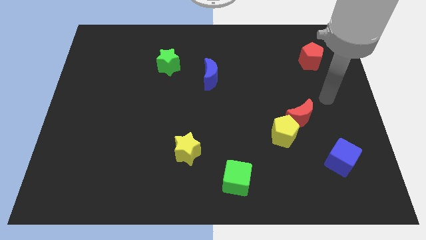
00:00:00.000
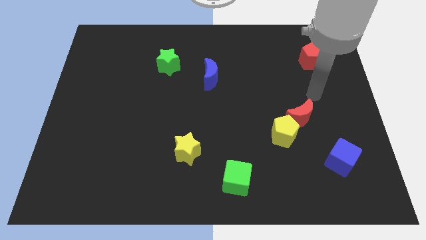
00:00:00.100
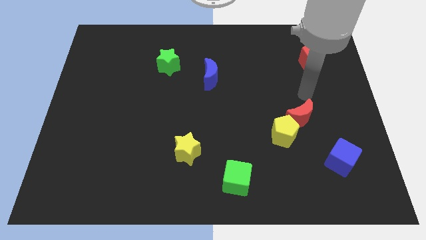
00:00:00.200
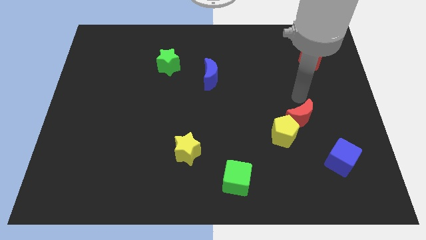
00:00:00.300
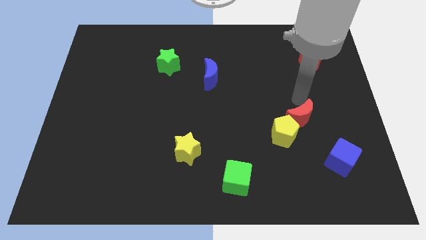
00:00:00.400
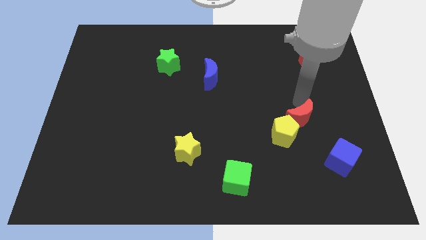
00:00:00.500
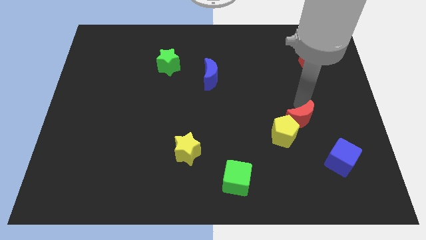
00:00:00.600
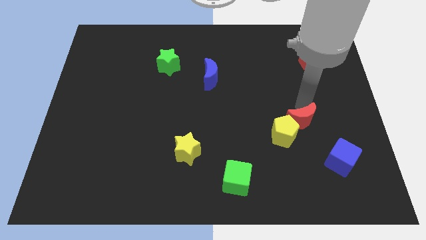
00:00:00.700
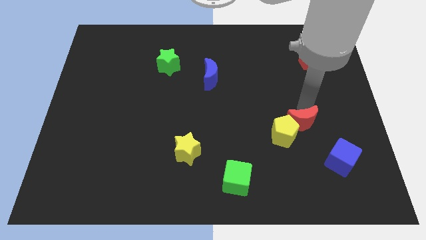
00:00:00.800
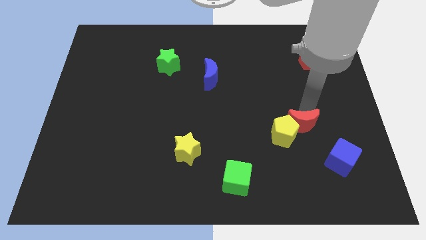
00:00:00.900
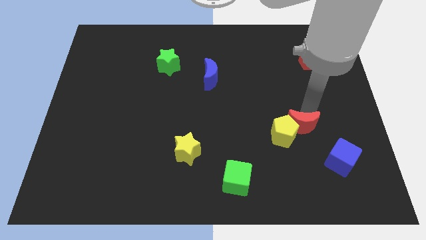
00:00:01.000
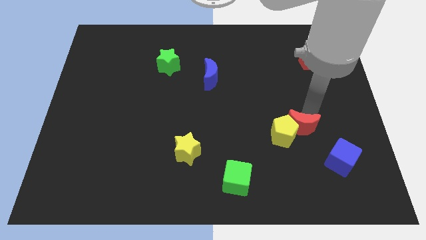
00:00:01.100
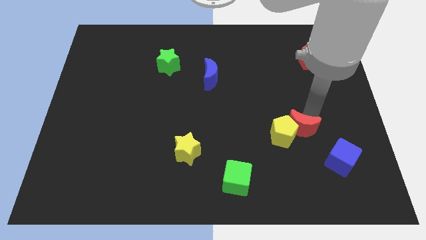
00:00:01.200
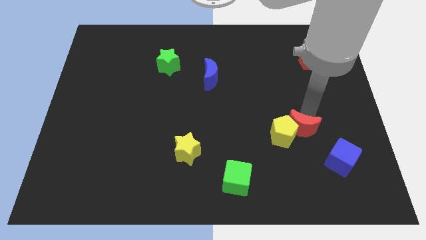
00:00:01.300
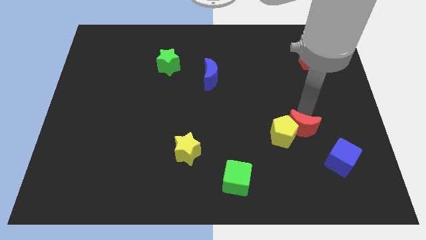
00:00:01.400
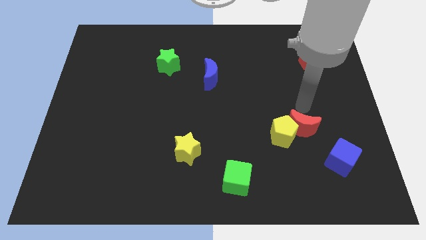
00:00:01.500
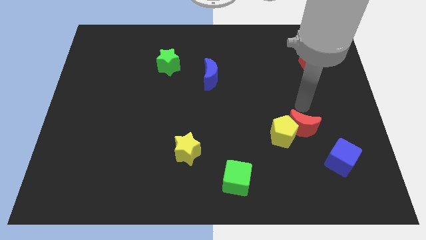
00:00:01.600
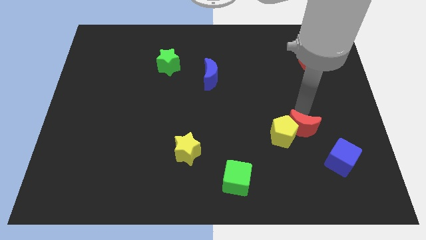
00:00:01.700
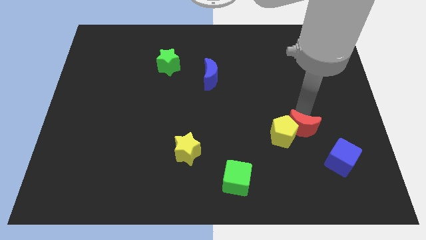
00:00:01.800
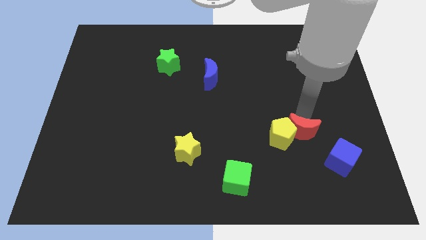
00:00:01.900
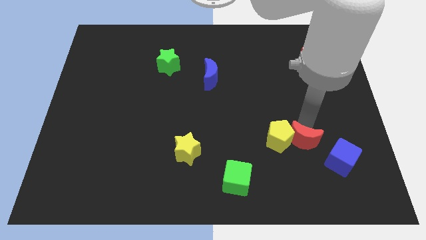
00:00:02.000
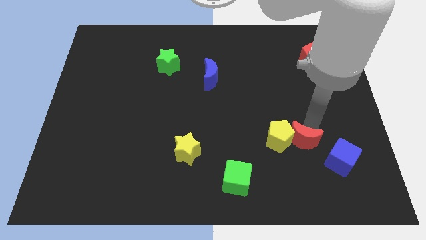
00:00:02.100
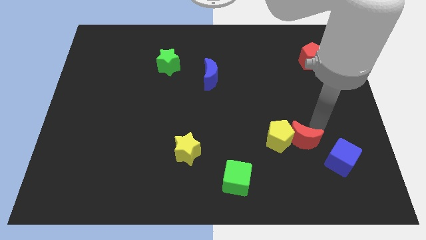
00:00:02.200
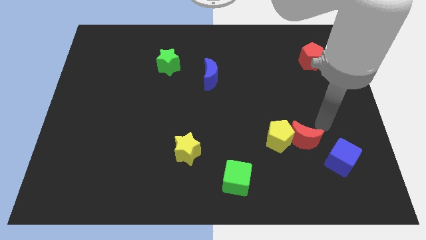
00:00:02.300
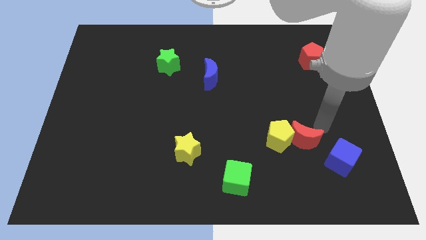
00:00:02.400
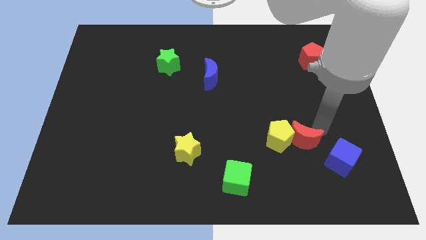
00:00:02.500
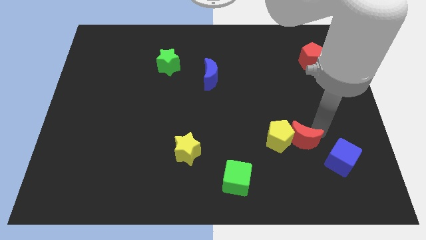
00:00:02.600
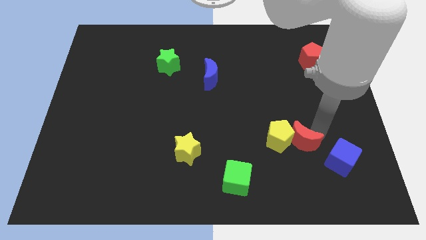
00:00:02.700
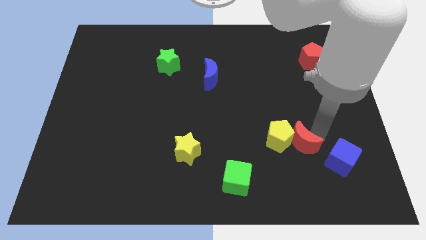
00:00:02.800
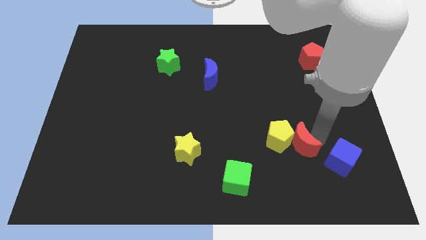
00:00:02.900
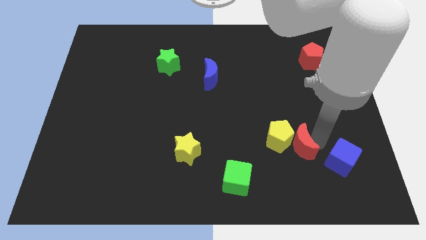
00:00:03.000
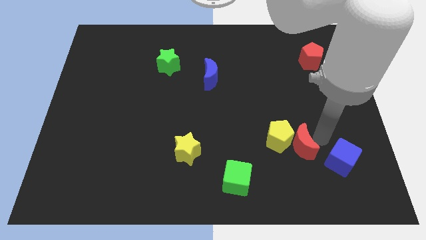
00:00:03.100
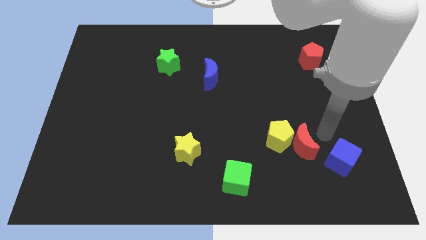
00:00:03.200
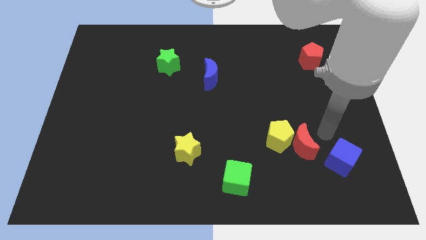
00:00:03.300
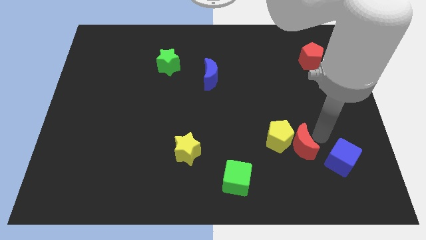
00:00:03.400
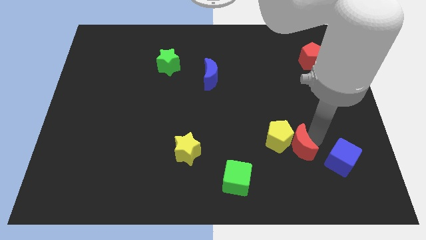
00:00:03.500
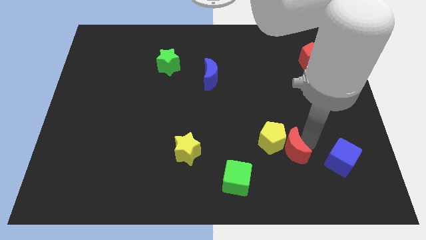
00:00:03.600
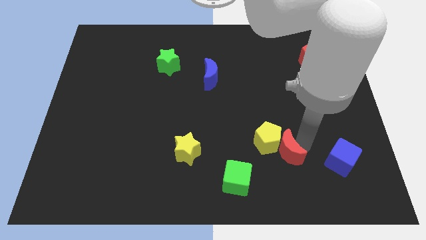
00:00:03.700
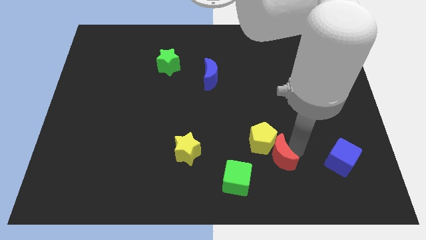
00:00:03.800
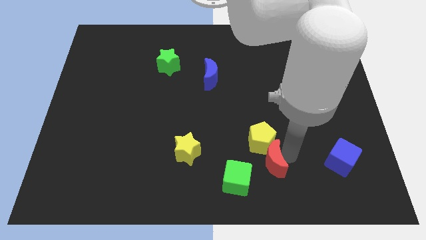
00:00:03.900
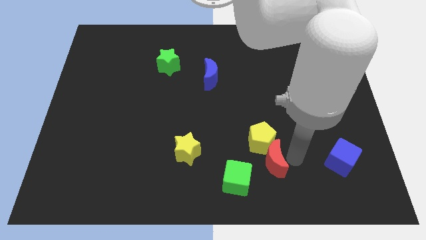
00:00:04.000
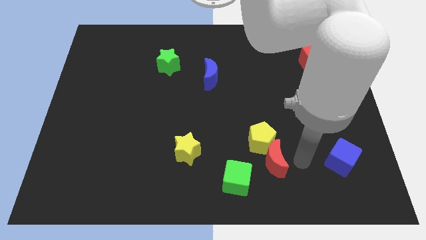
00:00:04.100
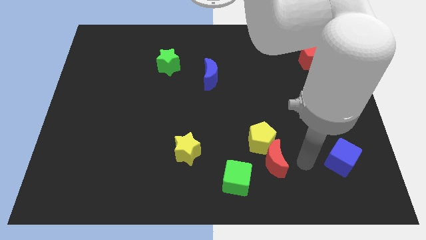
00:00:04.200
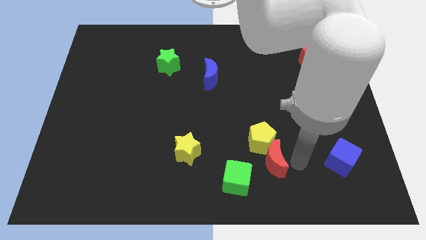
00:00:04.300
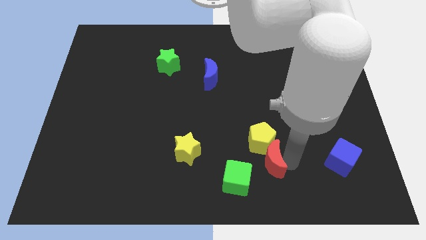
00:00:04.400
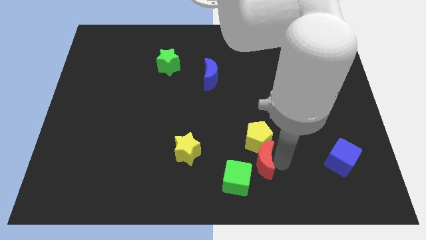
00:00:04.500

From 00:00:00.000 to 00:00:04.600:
slide the red moon diagonally down and to the left of the yellow pentagon

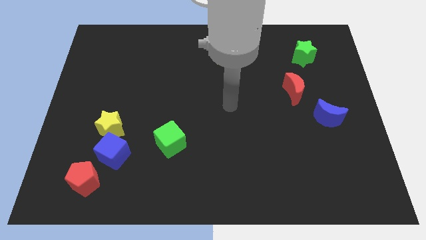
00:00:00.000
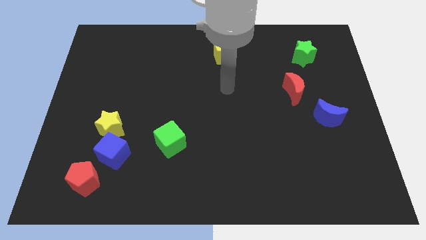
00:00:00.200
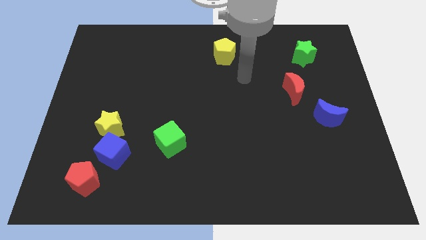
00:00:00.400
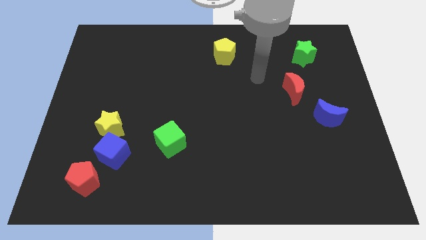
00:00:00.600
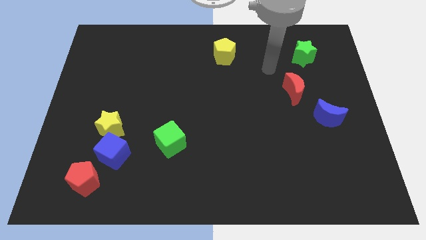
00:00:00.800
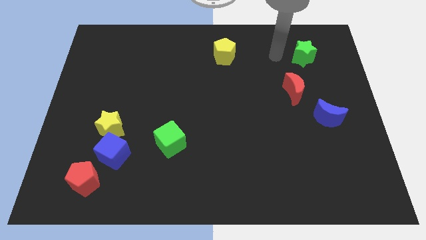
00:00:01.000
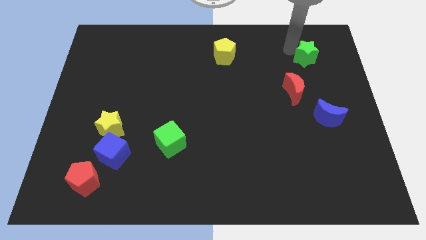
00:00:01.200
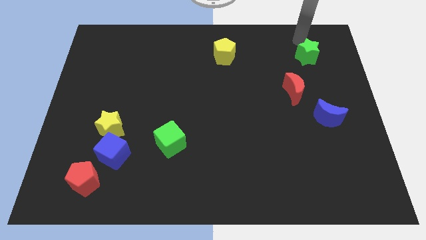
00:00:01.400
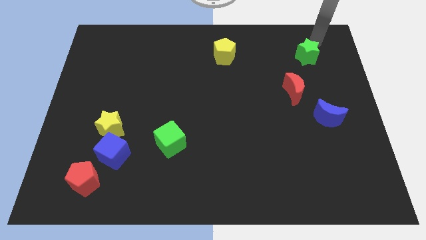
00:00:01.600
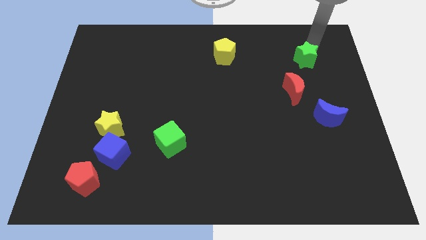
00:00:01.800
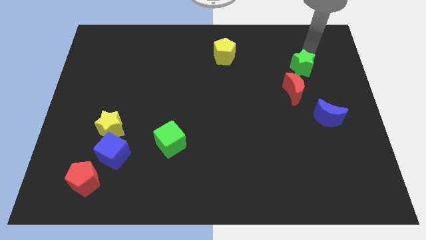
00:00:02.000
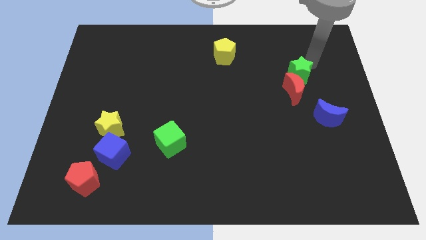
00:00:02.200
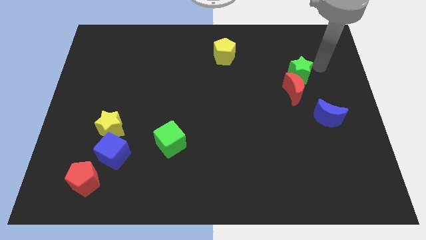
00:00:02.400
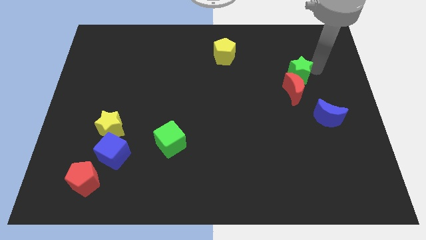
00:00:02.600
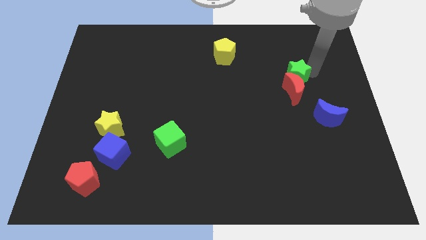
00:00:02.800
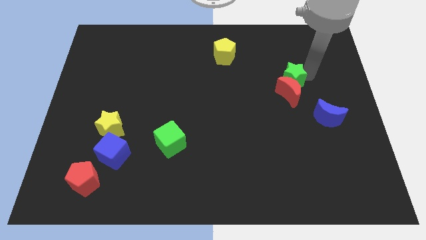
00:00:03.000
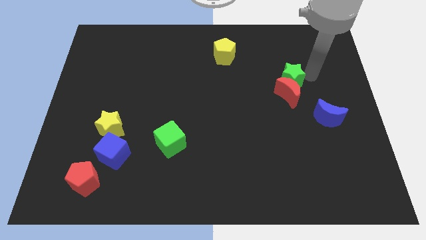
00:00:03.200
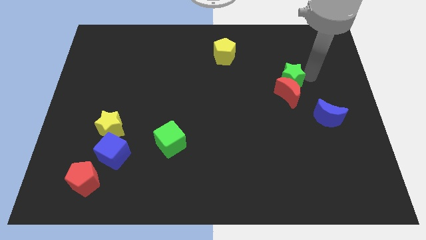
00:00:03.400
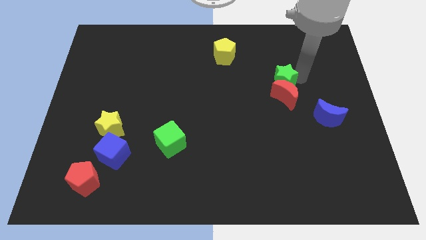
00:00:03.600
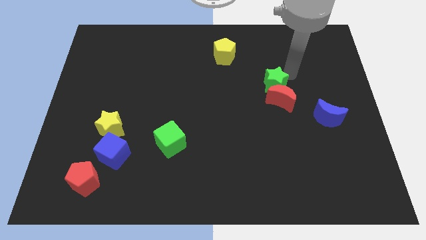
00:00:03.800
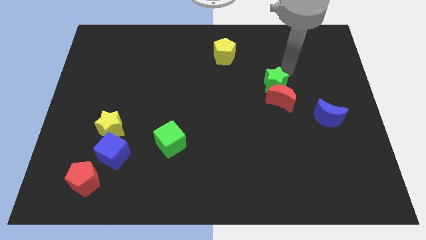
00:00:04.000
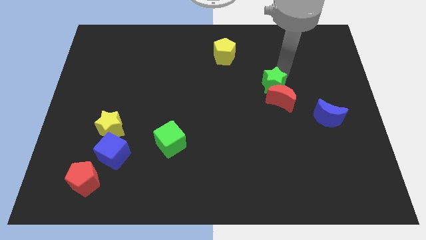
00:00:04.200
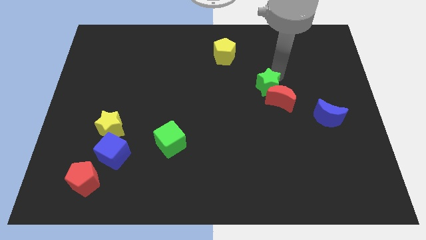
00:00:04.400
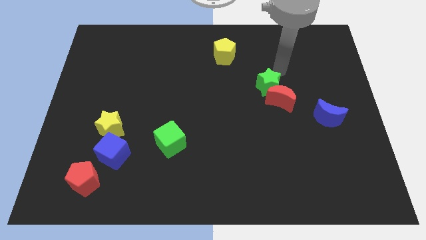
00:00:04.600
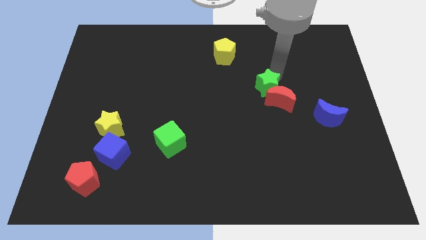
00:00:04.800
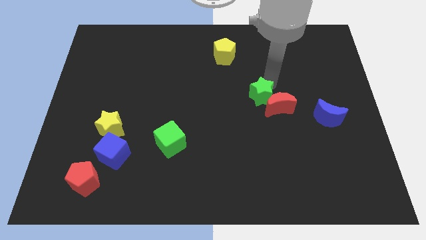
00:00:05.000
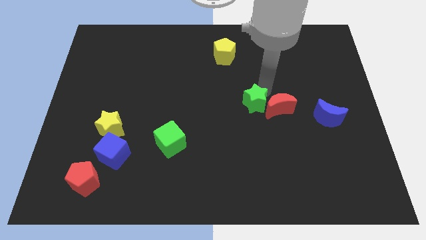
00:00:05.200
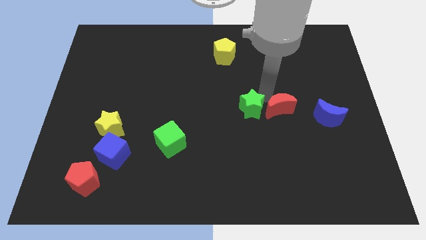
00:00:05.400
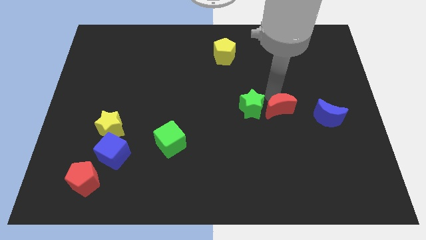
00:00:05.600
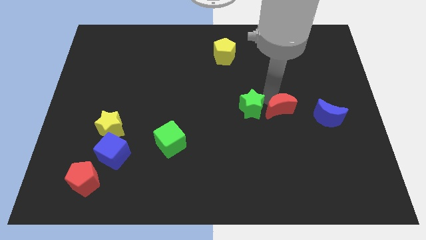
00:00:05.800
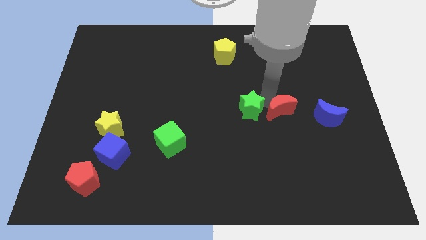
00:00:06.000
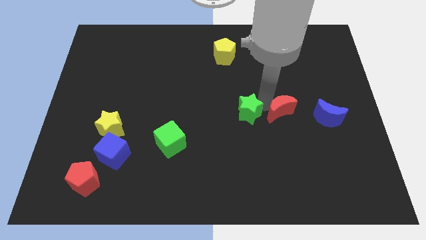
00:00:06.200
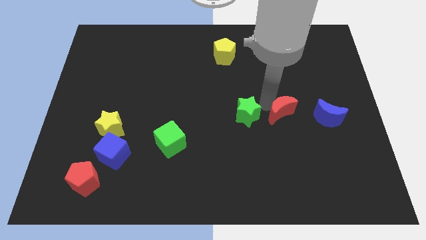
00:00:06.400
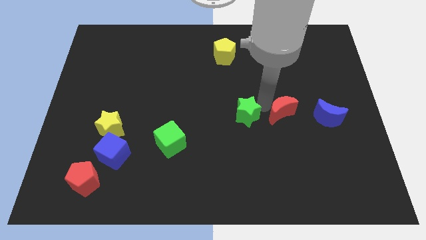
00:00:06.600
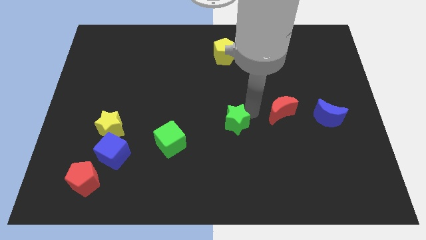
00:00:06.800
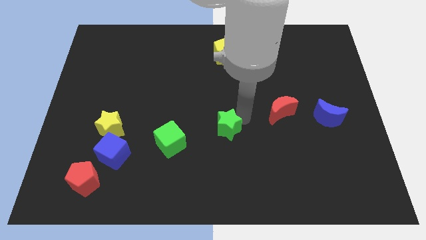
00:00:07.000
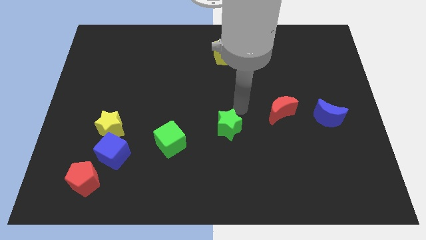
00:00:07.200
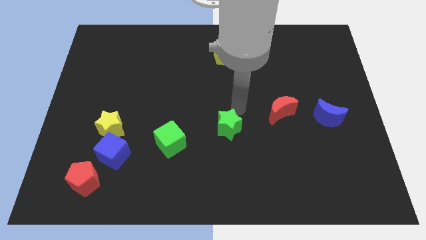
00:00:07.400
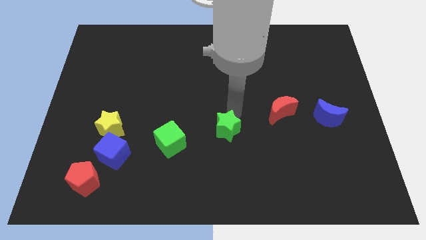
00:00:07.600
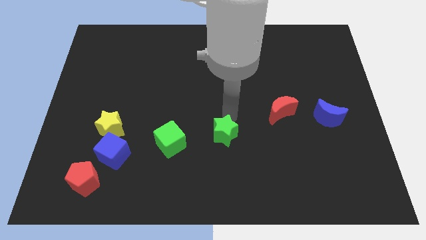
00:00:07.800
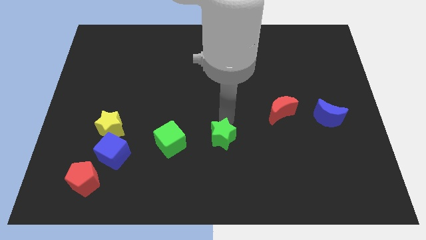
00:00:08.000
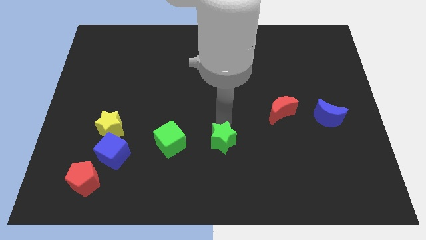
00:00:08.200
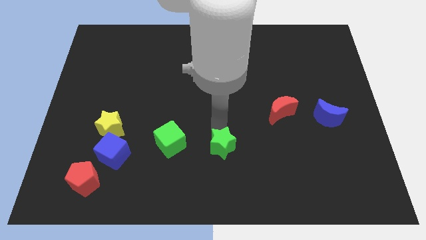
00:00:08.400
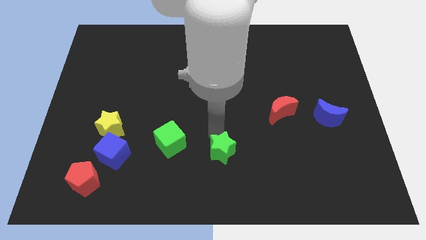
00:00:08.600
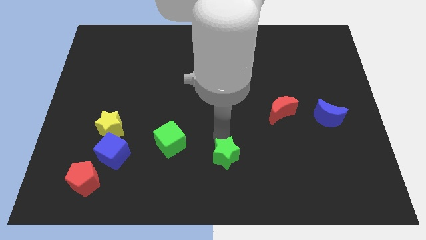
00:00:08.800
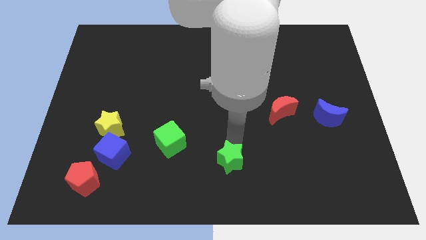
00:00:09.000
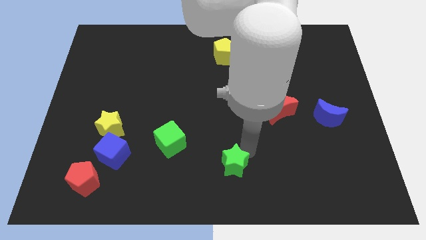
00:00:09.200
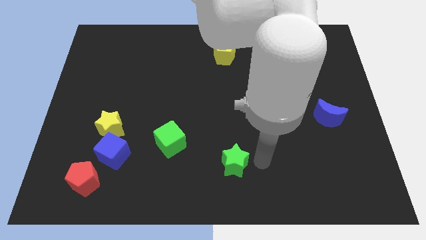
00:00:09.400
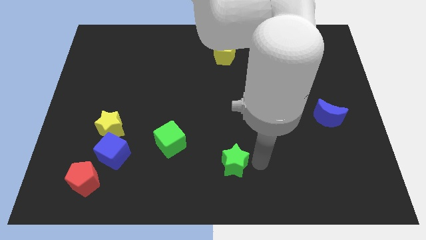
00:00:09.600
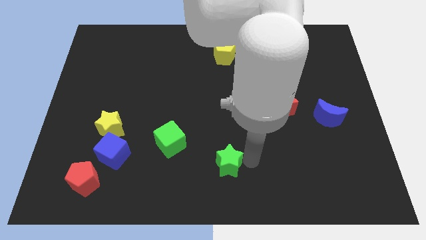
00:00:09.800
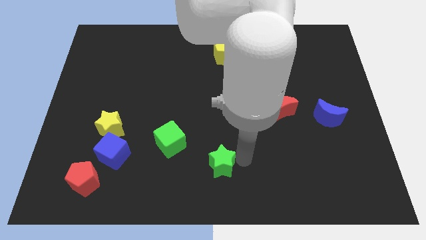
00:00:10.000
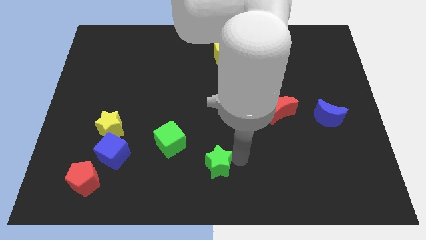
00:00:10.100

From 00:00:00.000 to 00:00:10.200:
put the green star to the bottom right of the green cube
